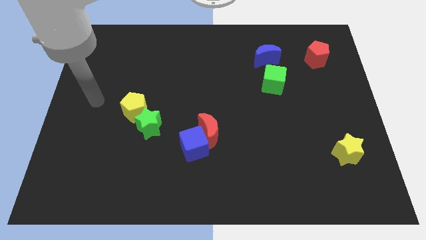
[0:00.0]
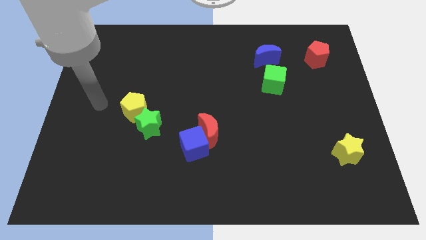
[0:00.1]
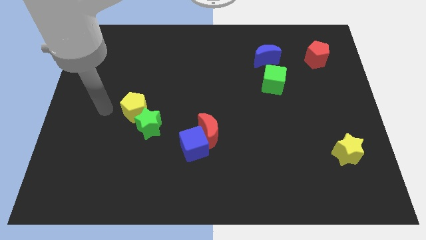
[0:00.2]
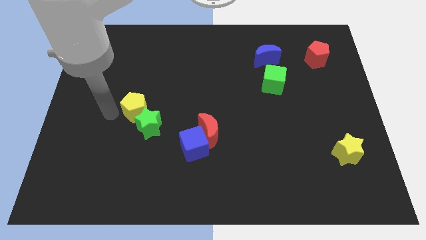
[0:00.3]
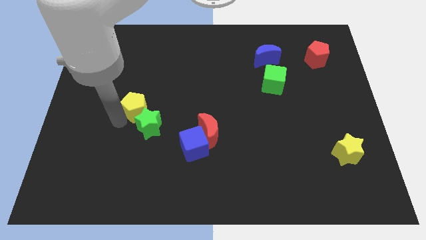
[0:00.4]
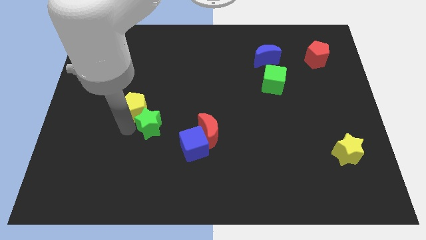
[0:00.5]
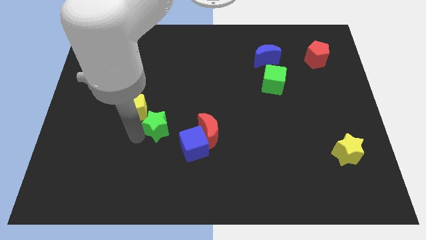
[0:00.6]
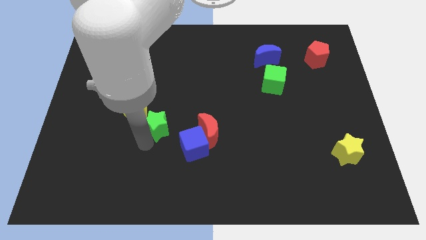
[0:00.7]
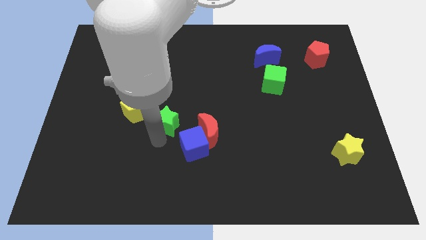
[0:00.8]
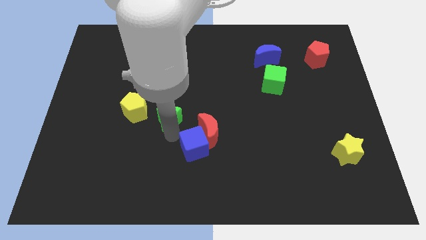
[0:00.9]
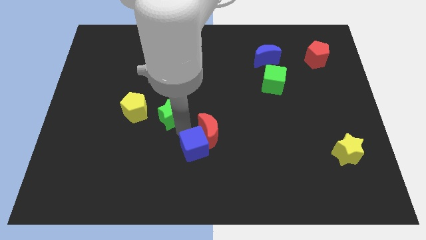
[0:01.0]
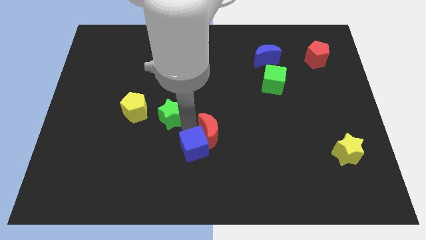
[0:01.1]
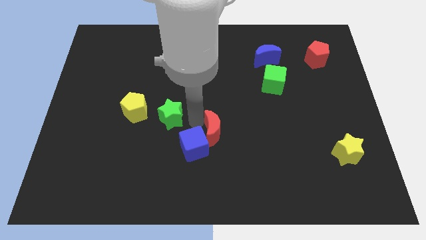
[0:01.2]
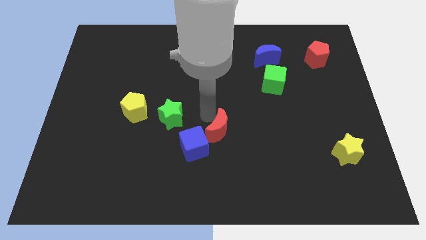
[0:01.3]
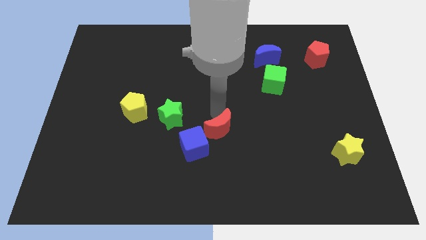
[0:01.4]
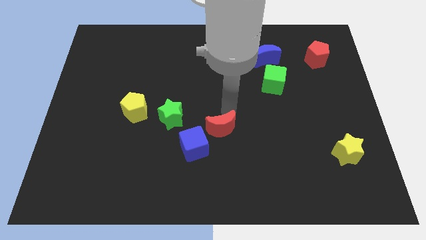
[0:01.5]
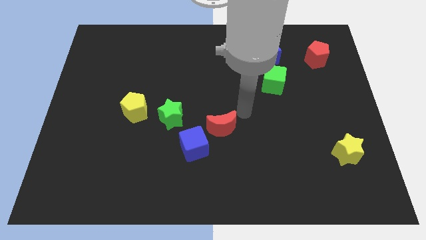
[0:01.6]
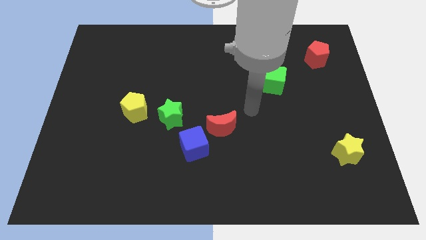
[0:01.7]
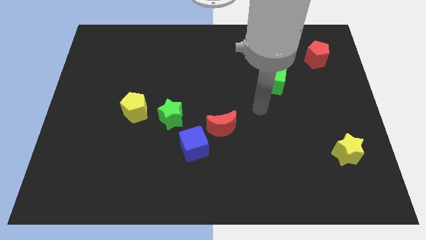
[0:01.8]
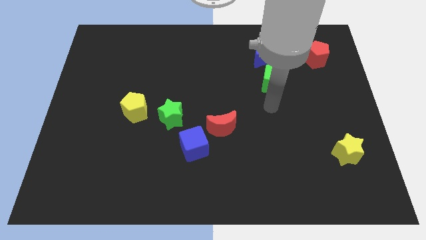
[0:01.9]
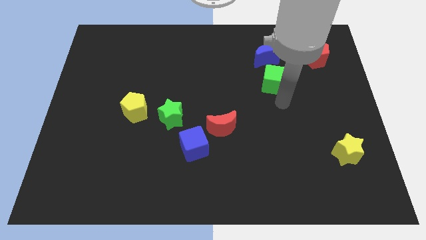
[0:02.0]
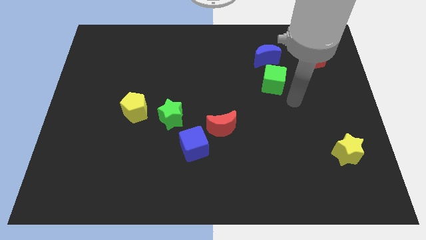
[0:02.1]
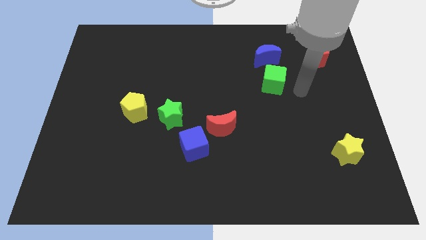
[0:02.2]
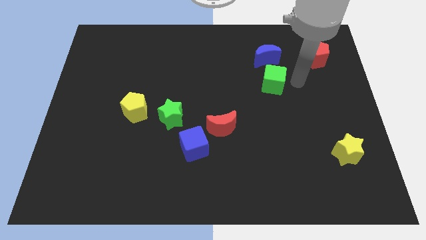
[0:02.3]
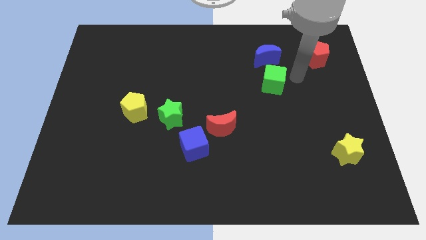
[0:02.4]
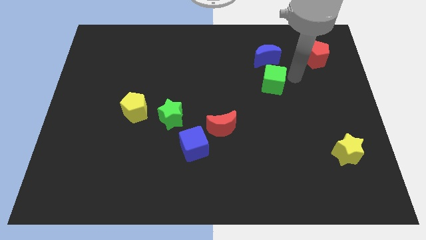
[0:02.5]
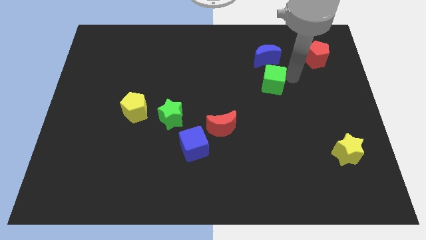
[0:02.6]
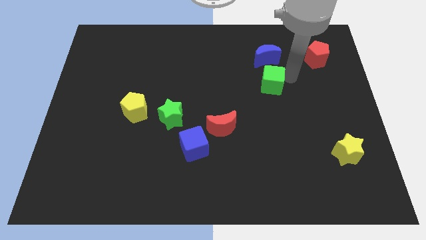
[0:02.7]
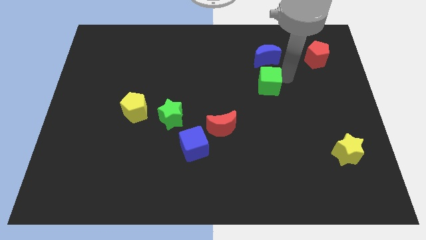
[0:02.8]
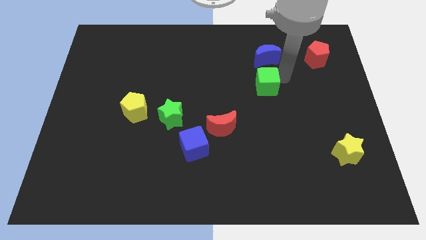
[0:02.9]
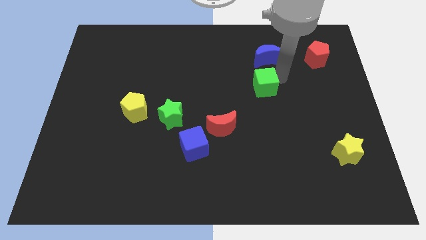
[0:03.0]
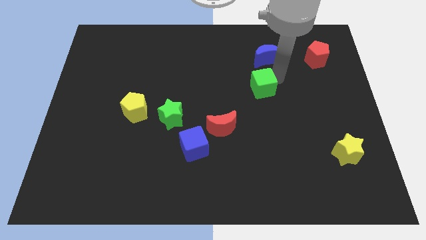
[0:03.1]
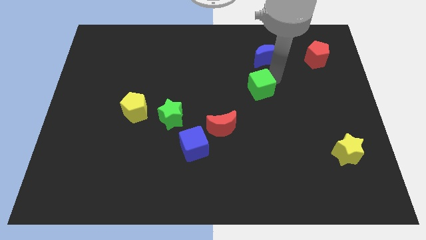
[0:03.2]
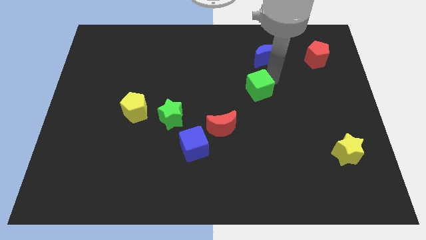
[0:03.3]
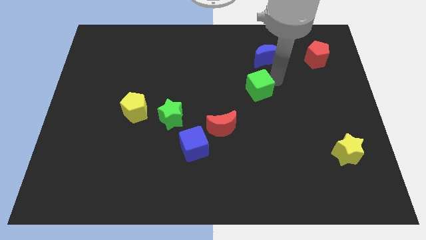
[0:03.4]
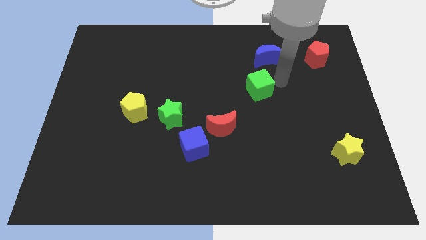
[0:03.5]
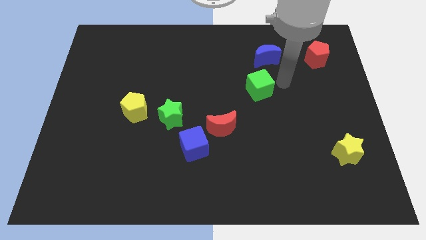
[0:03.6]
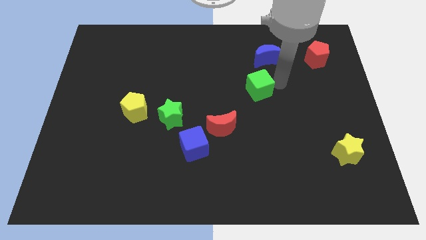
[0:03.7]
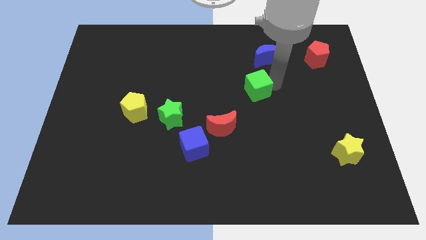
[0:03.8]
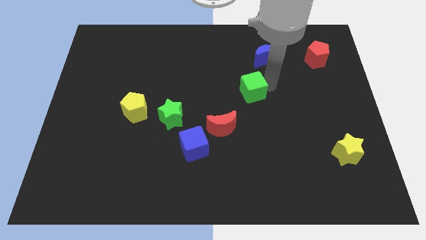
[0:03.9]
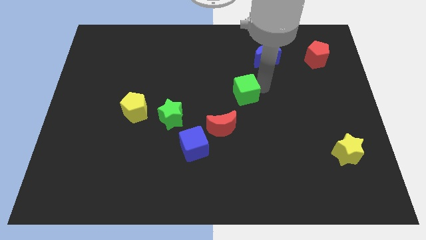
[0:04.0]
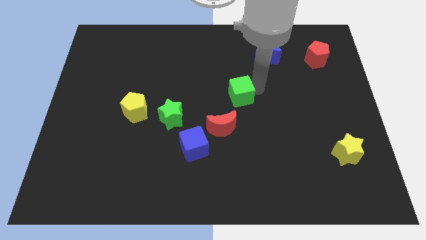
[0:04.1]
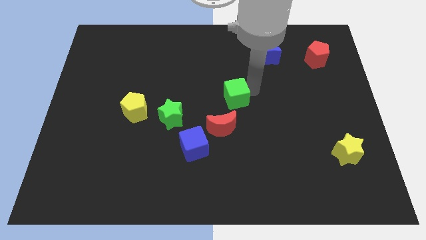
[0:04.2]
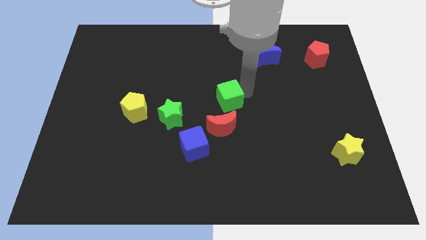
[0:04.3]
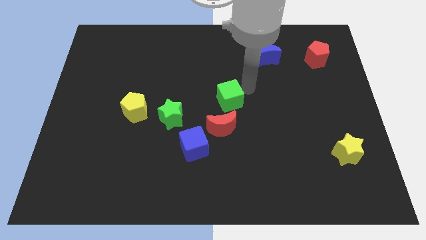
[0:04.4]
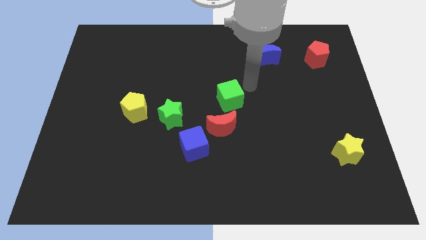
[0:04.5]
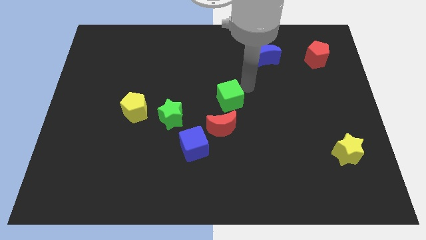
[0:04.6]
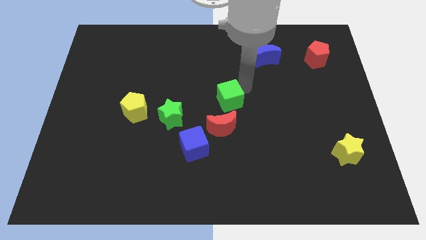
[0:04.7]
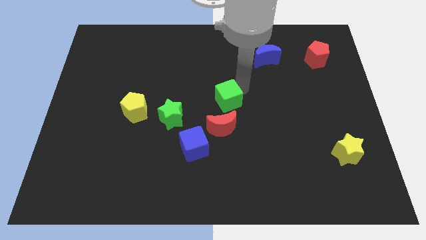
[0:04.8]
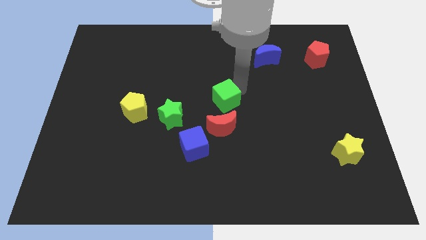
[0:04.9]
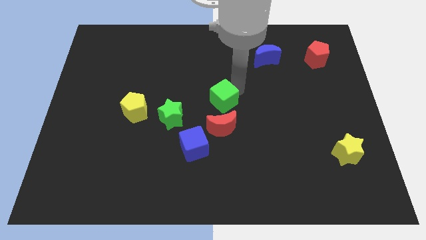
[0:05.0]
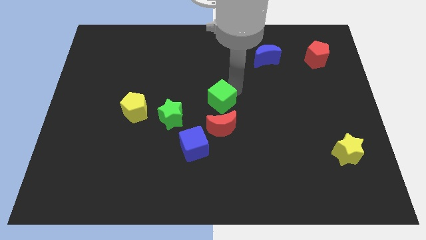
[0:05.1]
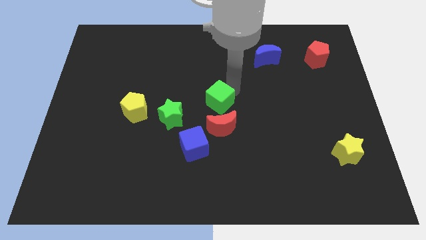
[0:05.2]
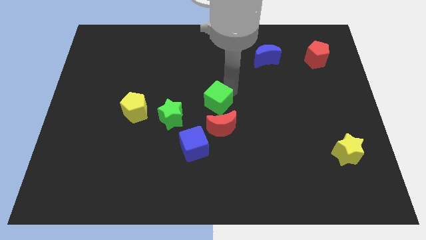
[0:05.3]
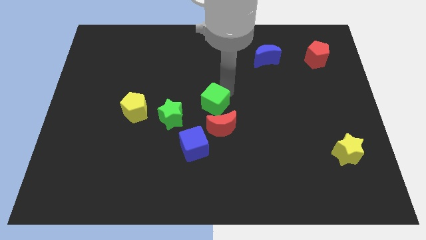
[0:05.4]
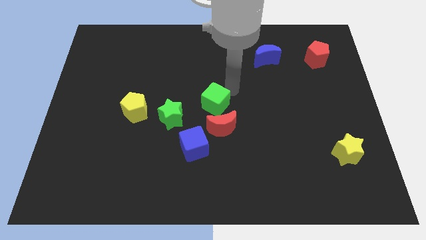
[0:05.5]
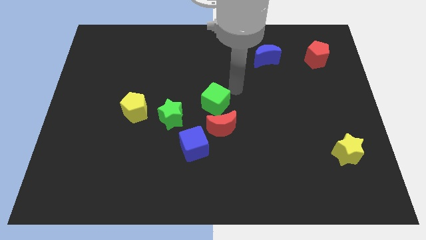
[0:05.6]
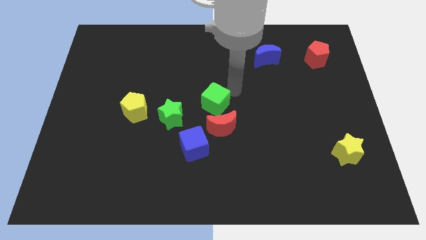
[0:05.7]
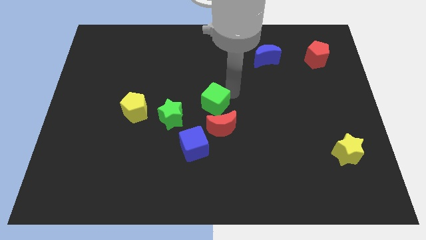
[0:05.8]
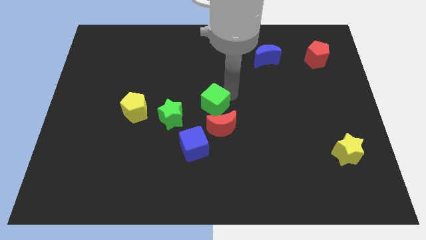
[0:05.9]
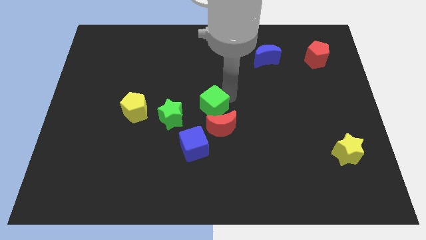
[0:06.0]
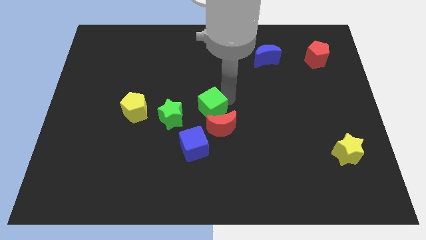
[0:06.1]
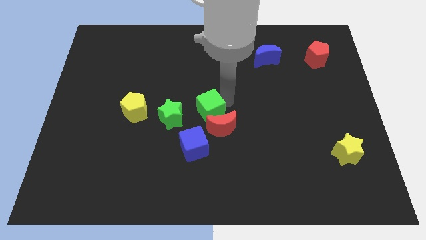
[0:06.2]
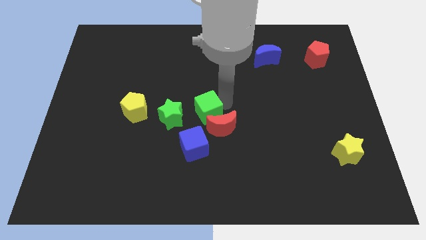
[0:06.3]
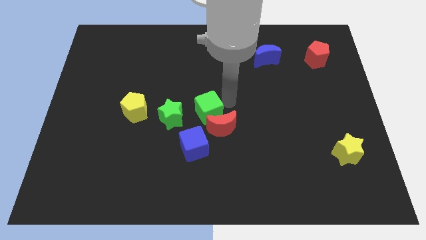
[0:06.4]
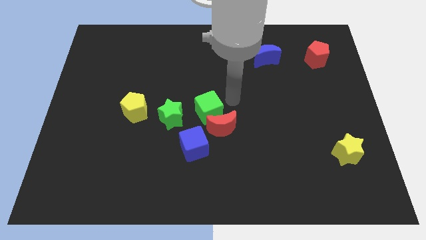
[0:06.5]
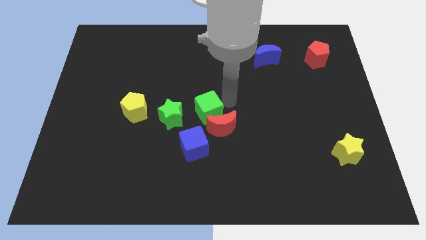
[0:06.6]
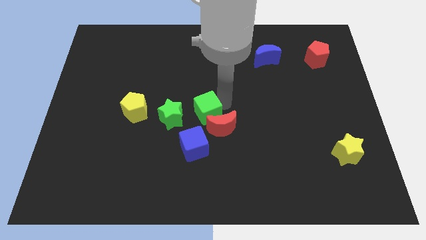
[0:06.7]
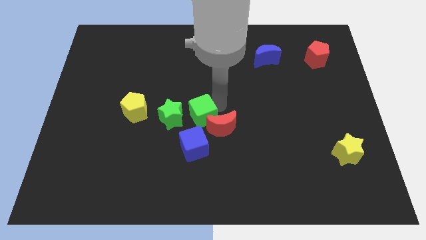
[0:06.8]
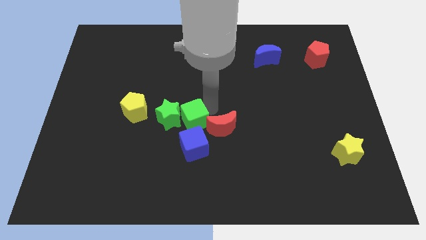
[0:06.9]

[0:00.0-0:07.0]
push the green cube downwards and to the left

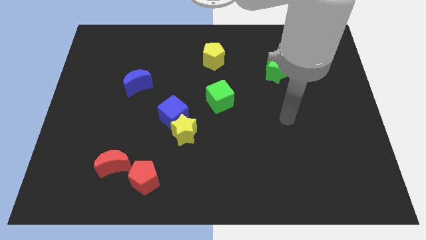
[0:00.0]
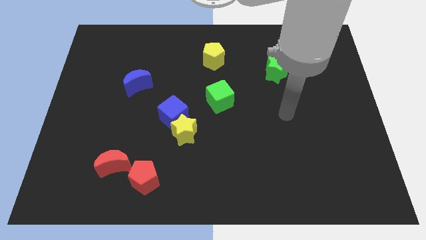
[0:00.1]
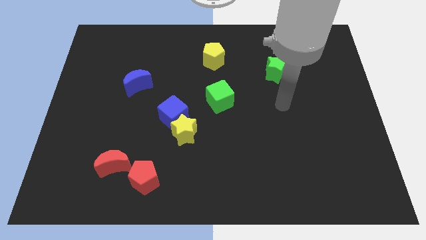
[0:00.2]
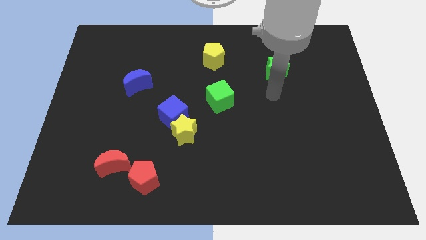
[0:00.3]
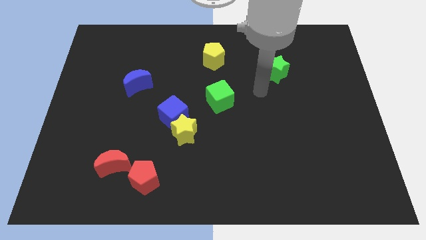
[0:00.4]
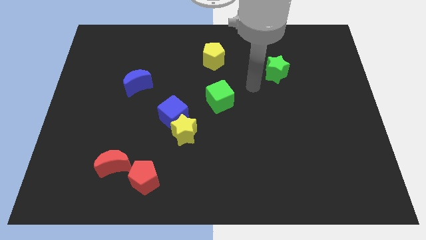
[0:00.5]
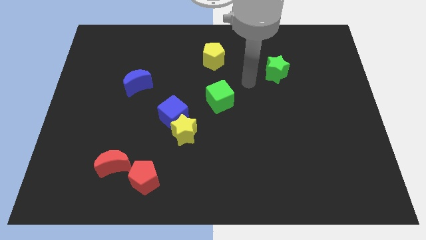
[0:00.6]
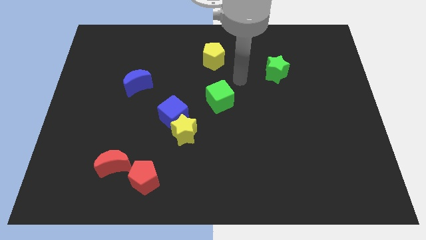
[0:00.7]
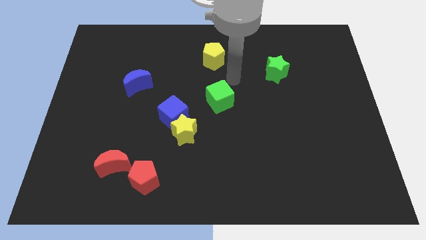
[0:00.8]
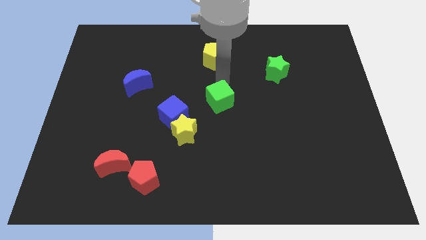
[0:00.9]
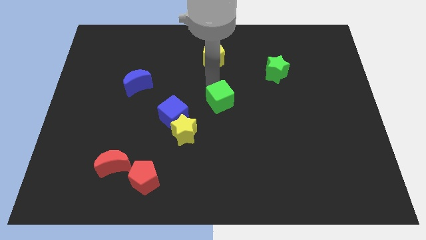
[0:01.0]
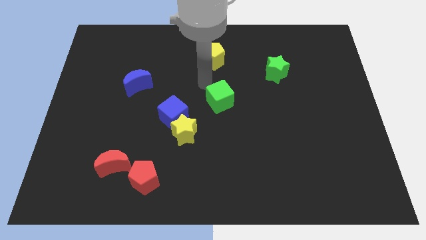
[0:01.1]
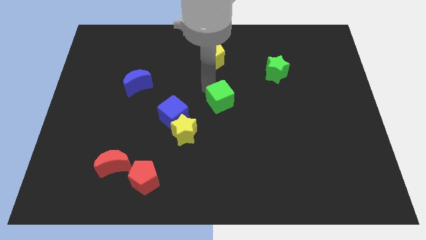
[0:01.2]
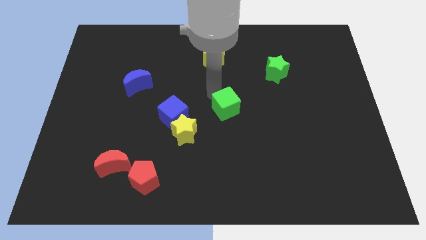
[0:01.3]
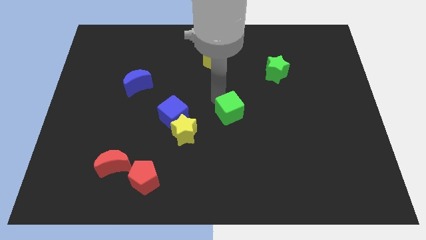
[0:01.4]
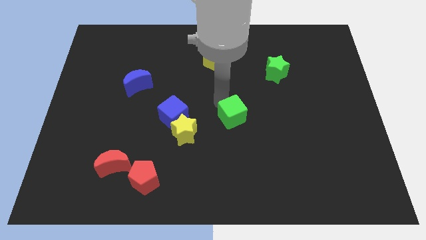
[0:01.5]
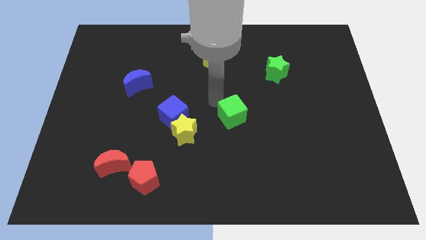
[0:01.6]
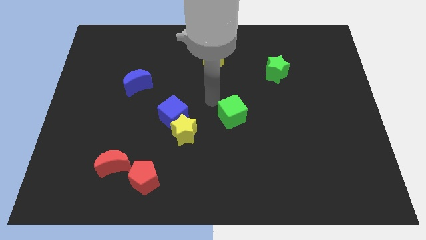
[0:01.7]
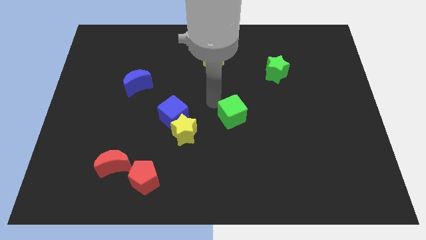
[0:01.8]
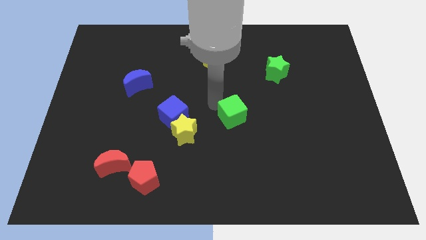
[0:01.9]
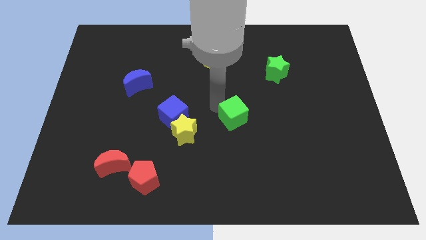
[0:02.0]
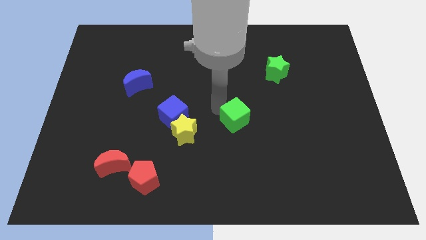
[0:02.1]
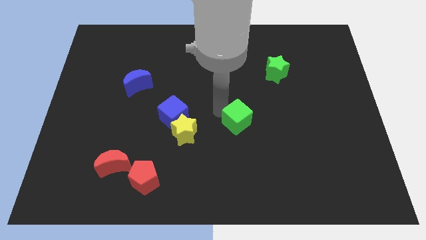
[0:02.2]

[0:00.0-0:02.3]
slide the green cube diagonally downwards and to the right a bit
